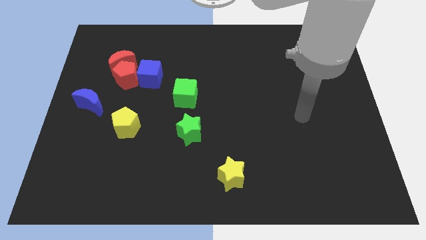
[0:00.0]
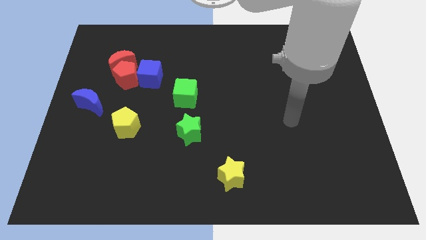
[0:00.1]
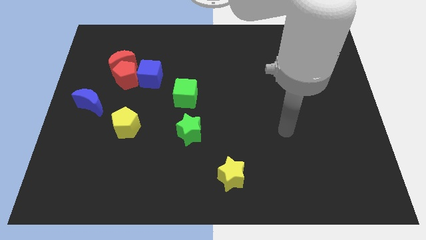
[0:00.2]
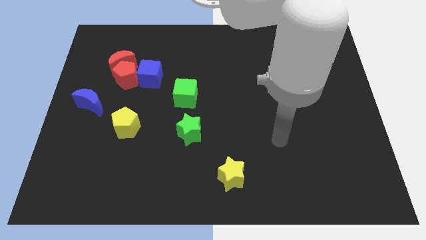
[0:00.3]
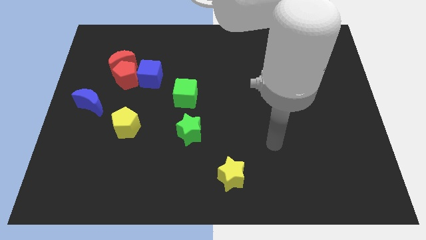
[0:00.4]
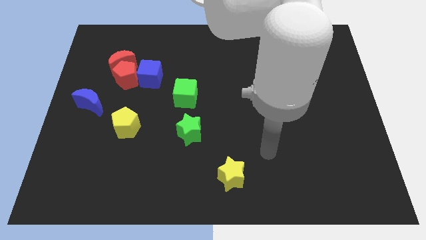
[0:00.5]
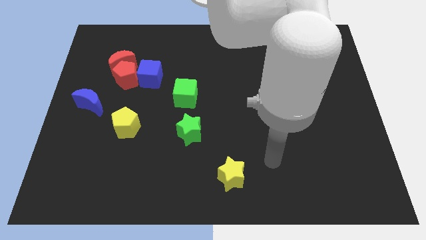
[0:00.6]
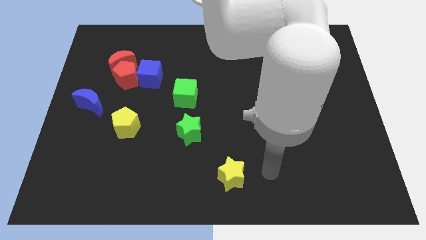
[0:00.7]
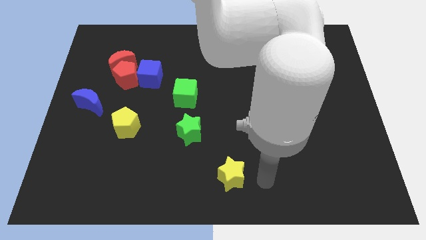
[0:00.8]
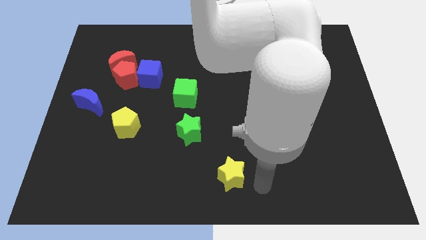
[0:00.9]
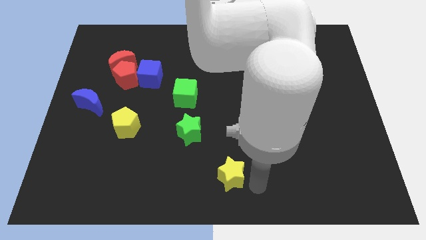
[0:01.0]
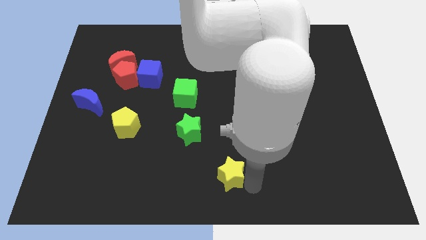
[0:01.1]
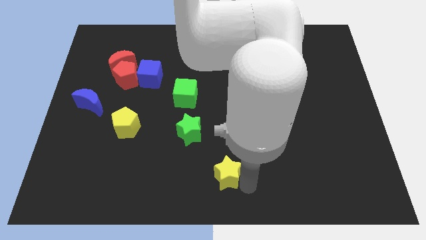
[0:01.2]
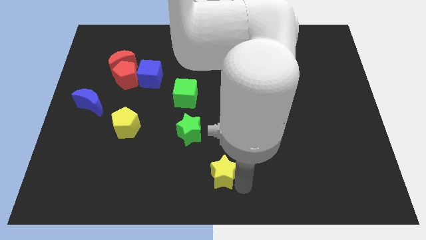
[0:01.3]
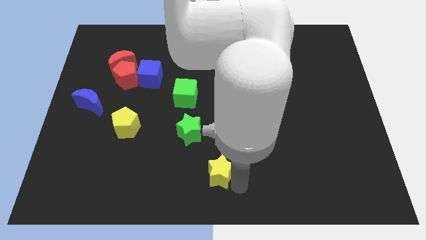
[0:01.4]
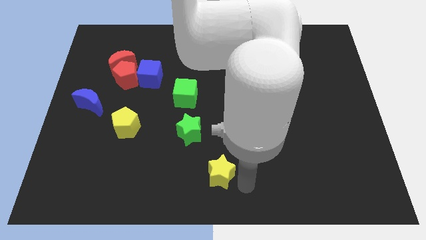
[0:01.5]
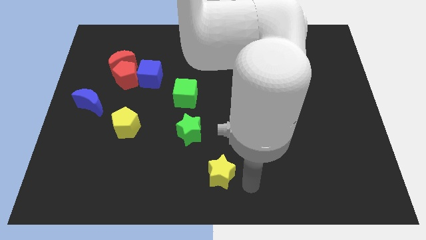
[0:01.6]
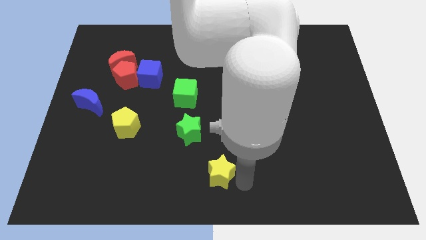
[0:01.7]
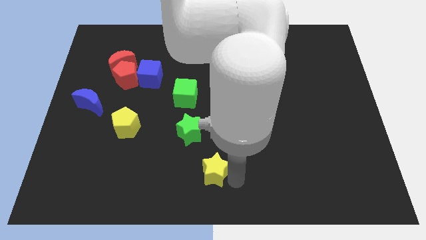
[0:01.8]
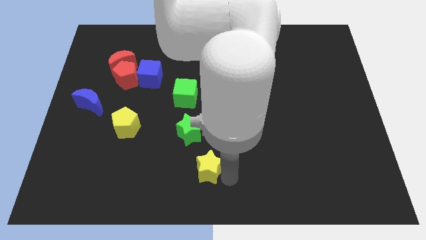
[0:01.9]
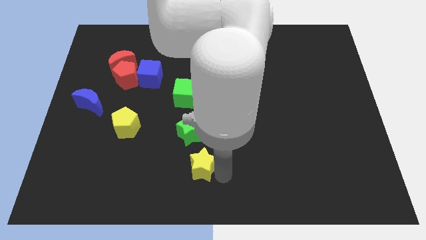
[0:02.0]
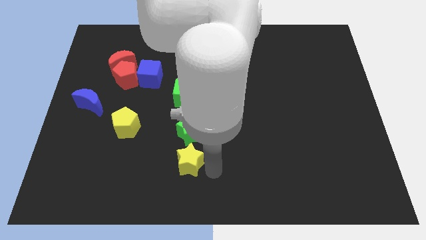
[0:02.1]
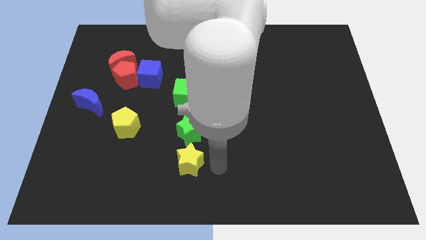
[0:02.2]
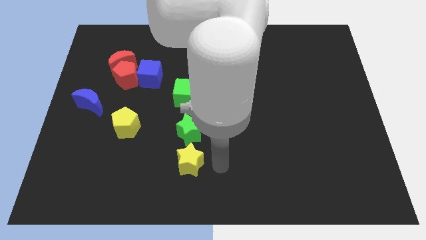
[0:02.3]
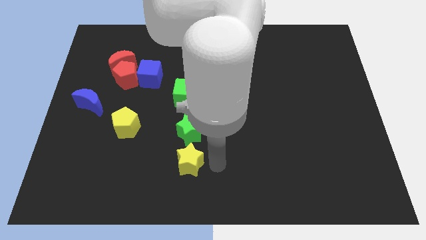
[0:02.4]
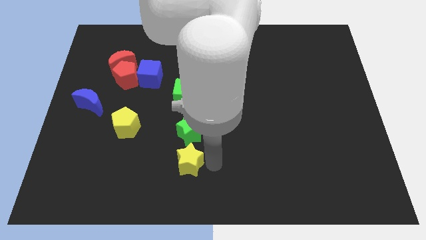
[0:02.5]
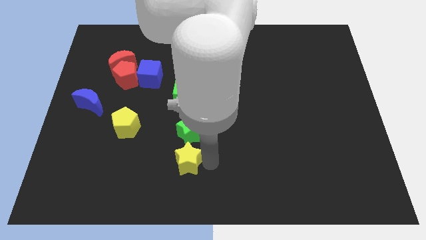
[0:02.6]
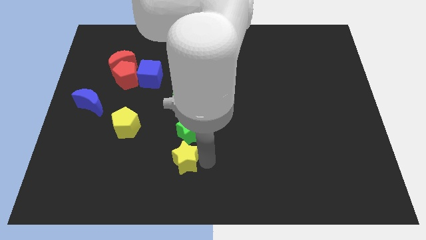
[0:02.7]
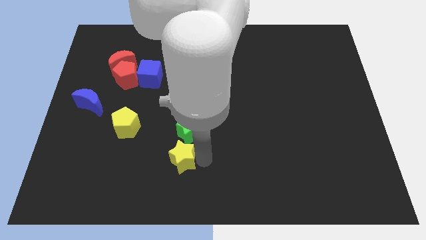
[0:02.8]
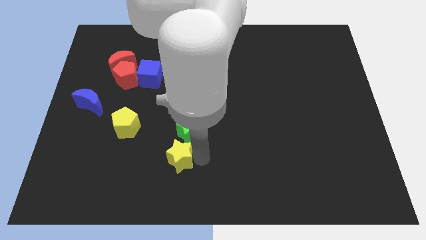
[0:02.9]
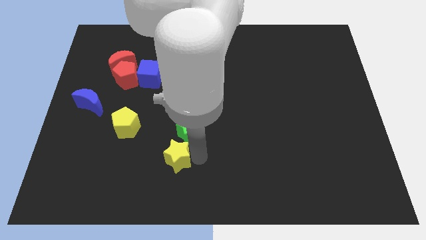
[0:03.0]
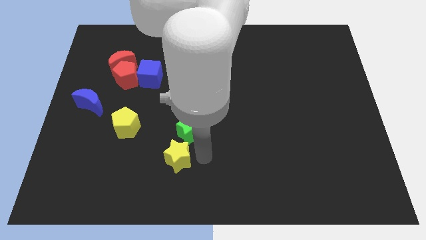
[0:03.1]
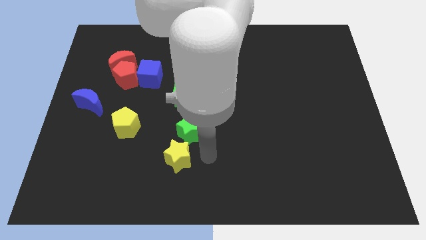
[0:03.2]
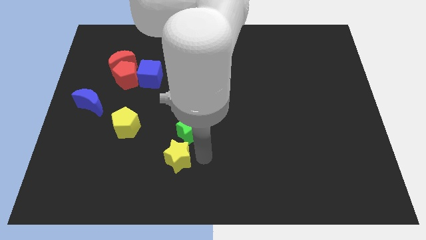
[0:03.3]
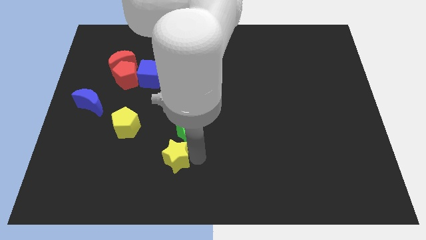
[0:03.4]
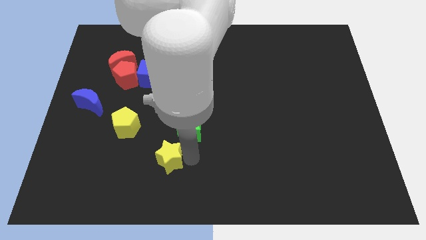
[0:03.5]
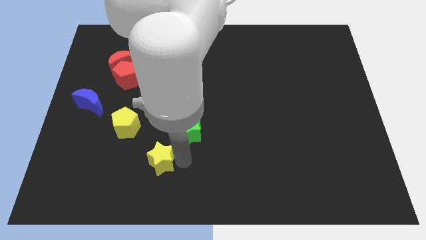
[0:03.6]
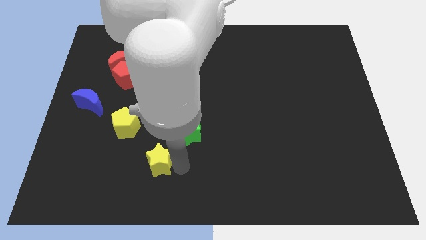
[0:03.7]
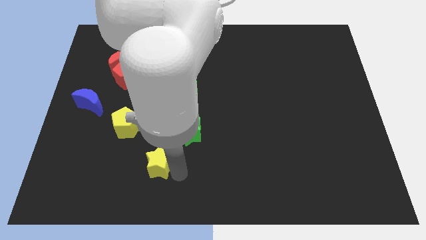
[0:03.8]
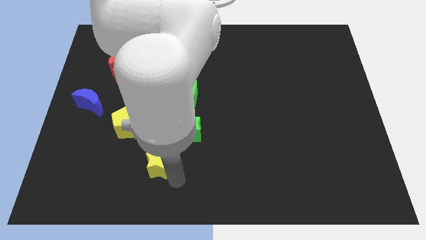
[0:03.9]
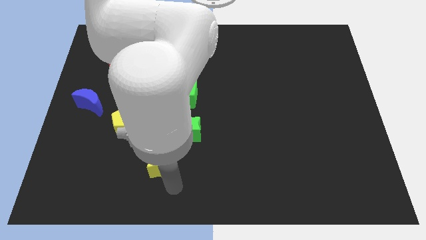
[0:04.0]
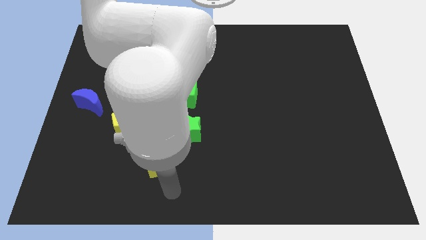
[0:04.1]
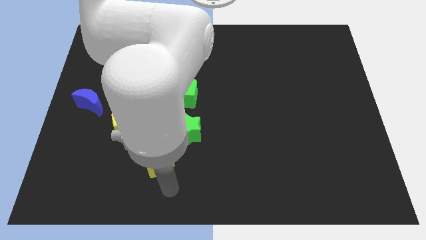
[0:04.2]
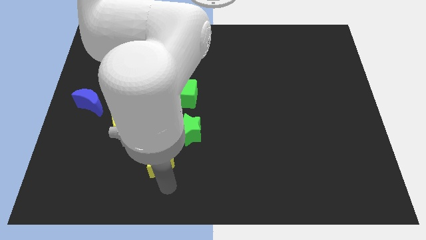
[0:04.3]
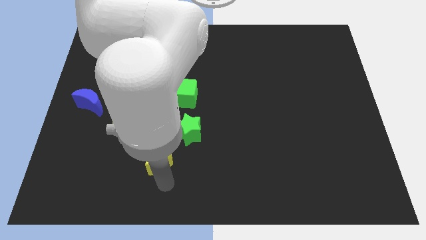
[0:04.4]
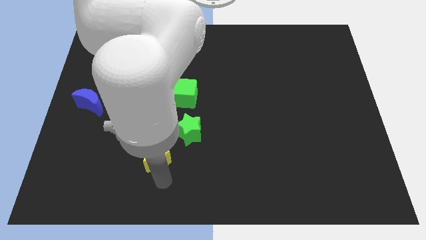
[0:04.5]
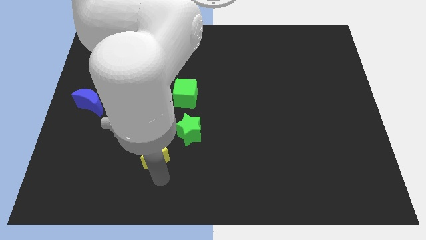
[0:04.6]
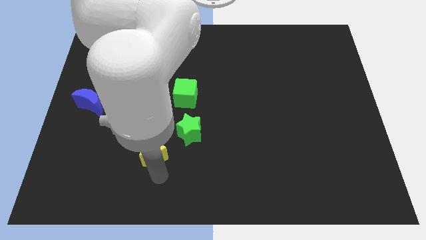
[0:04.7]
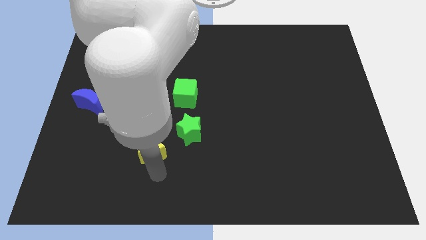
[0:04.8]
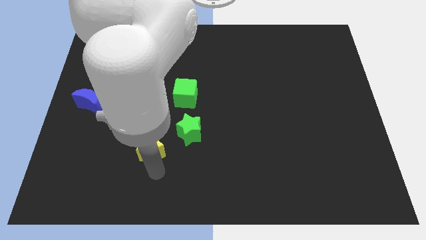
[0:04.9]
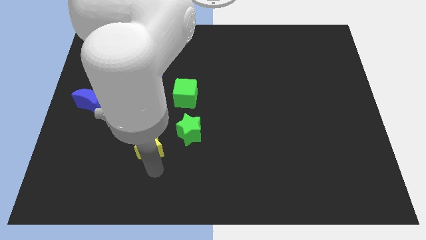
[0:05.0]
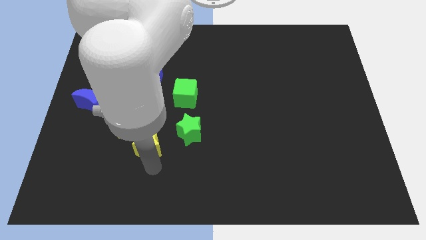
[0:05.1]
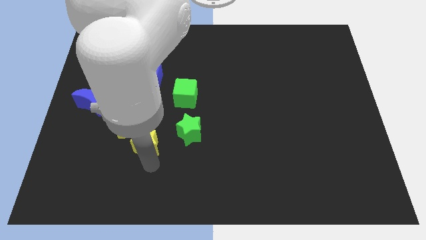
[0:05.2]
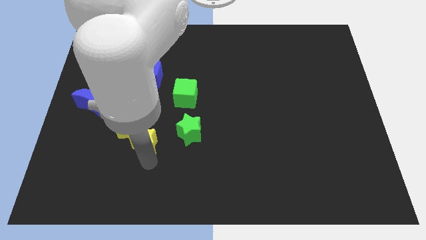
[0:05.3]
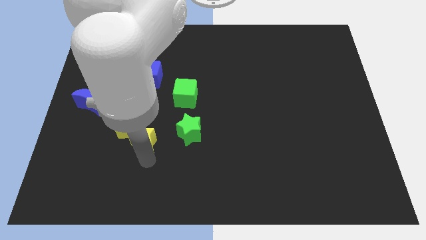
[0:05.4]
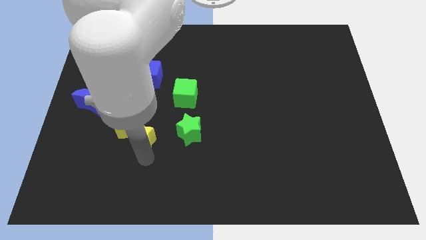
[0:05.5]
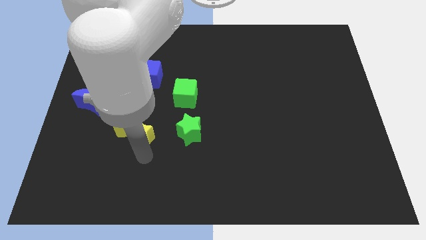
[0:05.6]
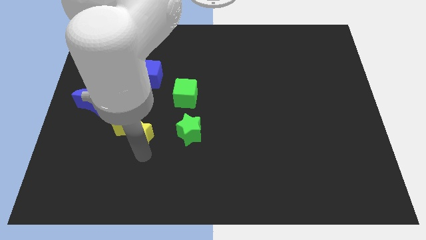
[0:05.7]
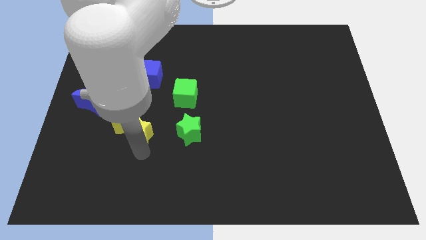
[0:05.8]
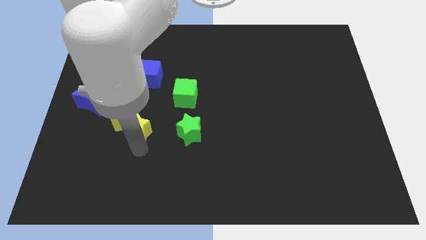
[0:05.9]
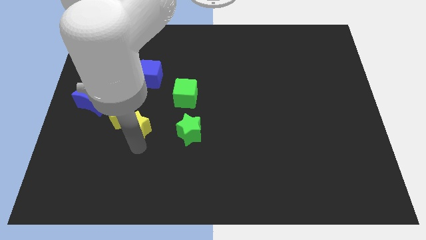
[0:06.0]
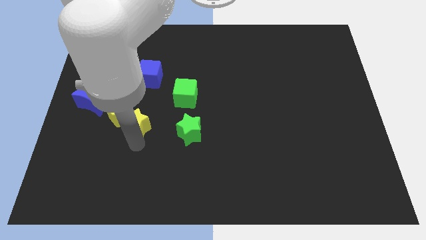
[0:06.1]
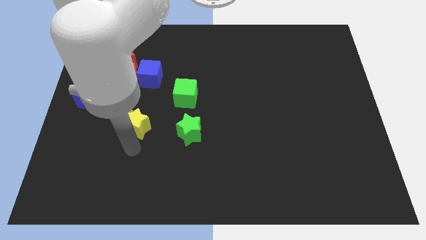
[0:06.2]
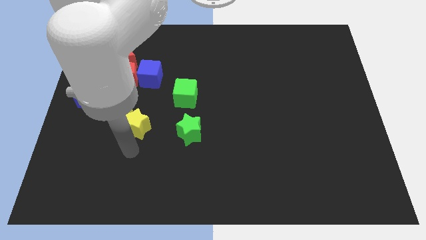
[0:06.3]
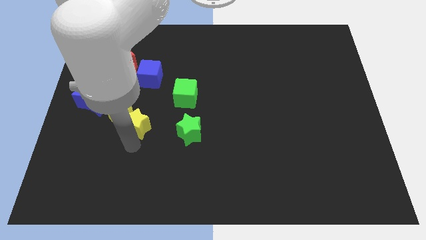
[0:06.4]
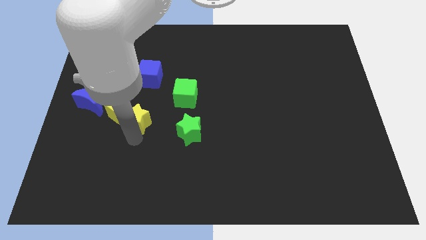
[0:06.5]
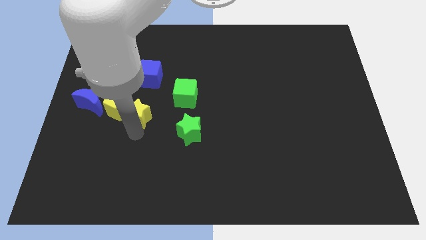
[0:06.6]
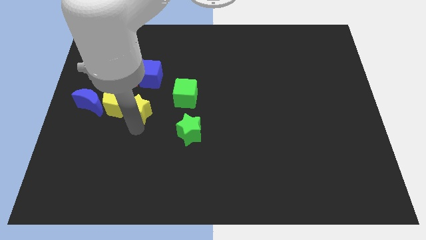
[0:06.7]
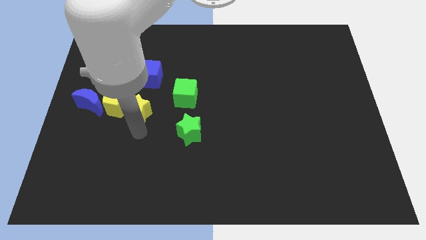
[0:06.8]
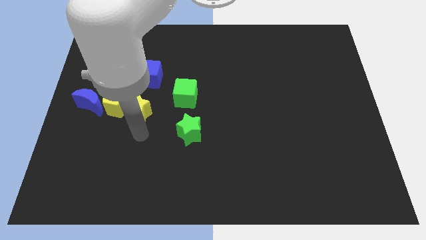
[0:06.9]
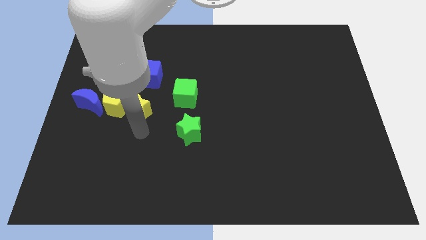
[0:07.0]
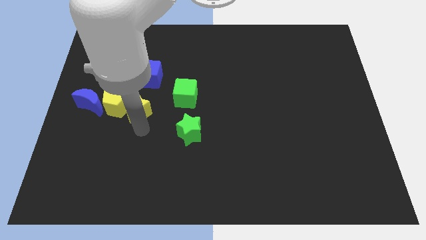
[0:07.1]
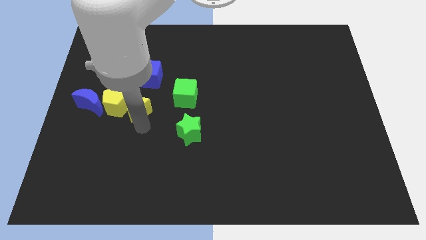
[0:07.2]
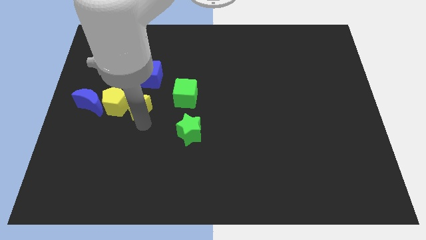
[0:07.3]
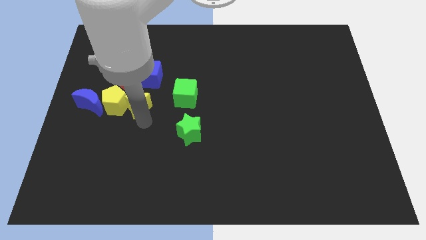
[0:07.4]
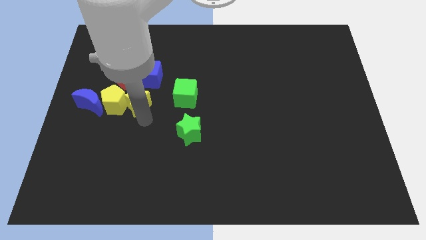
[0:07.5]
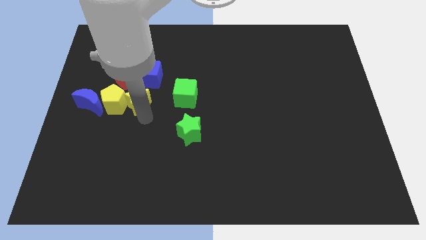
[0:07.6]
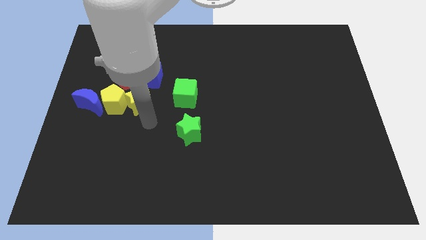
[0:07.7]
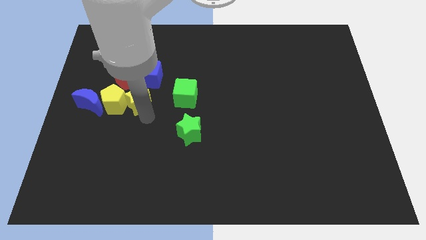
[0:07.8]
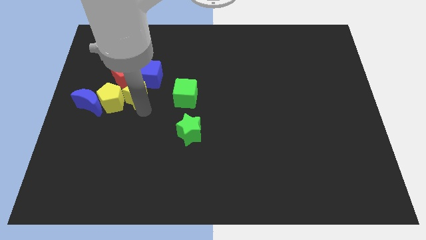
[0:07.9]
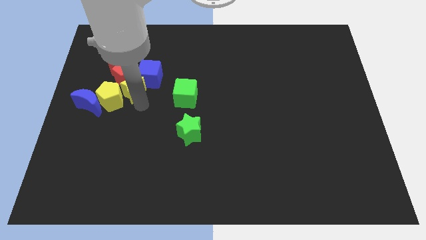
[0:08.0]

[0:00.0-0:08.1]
put the yellow star towards the red pentagon
